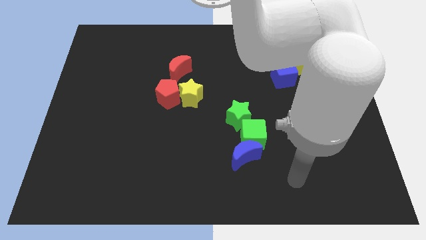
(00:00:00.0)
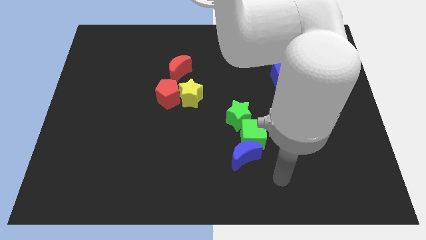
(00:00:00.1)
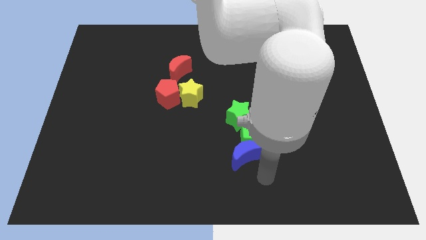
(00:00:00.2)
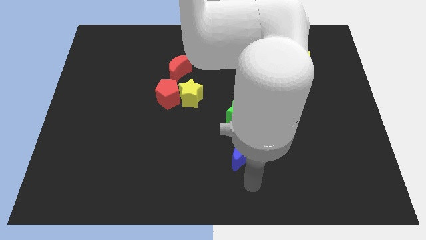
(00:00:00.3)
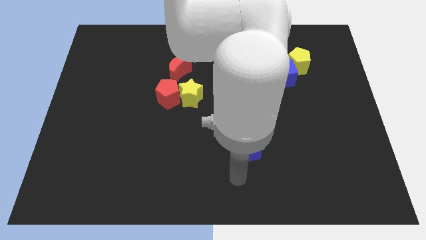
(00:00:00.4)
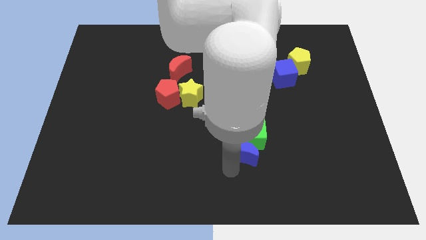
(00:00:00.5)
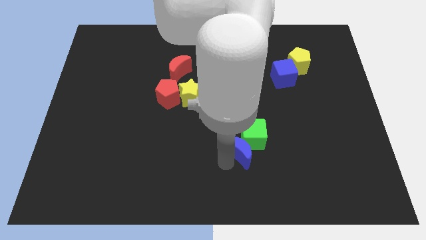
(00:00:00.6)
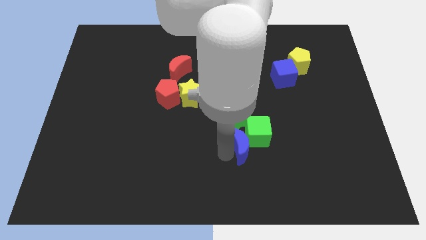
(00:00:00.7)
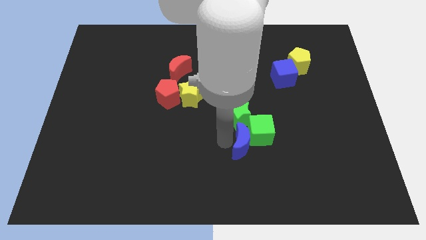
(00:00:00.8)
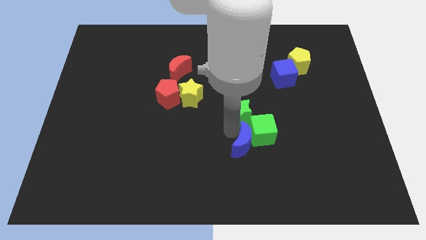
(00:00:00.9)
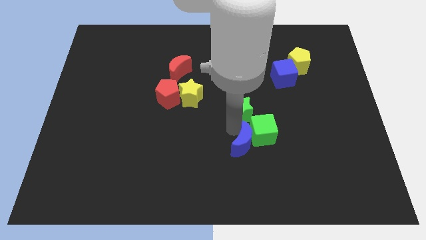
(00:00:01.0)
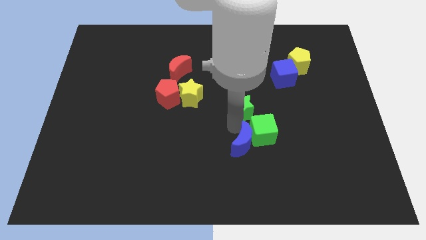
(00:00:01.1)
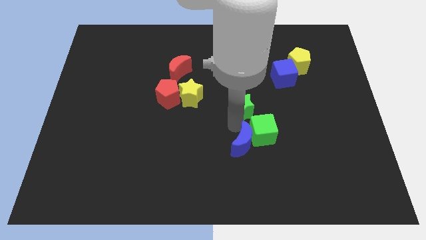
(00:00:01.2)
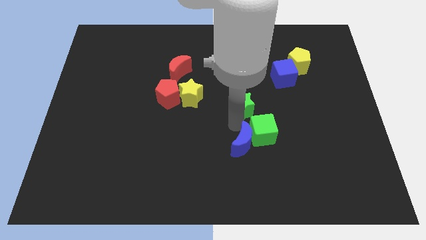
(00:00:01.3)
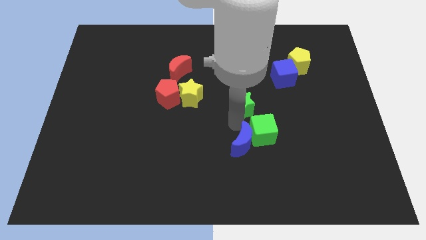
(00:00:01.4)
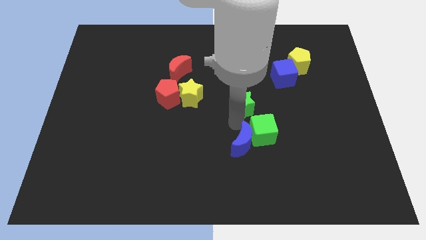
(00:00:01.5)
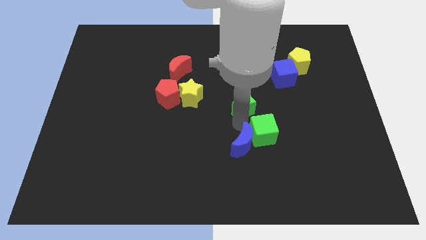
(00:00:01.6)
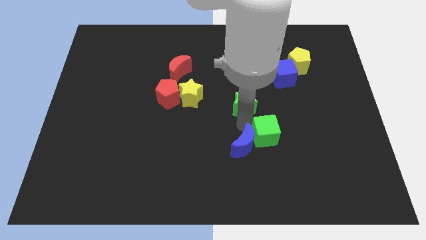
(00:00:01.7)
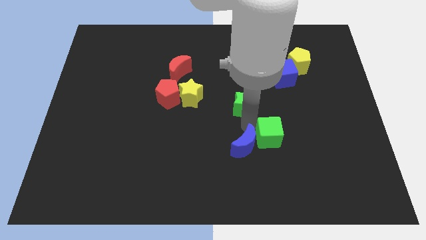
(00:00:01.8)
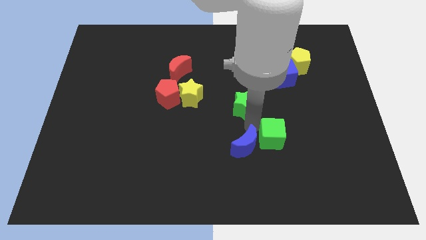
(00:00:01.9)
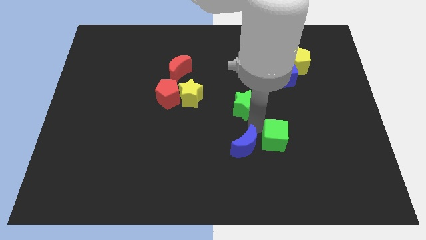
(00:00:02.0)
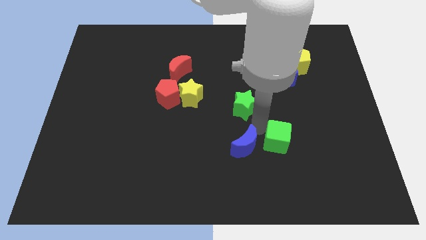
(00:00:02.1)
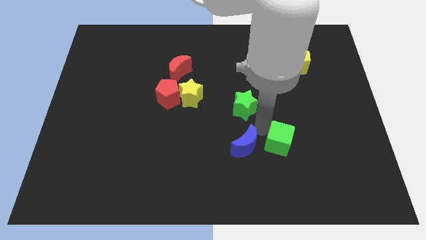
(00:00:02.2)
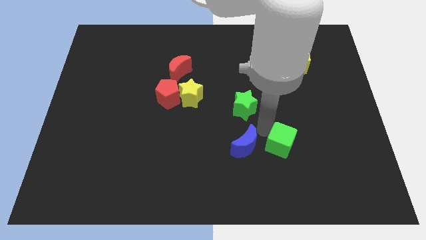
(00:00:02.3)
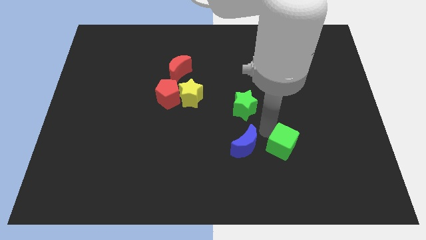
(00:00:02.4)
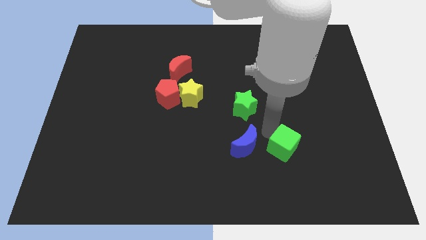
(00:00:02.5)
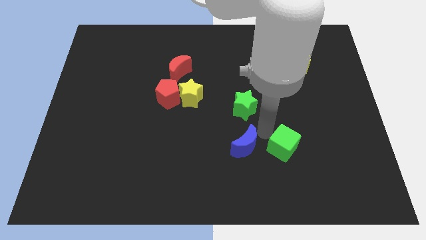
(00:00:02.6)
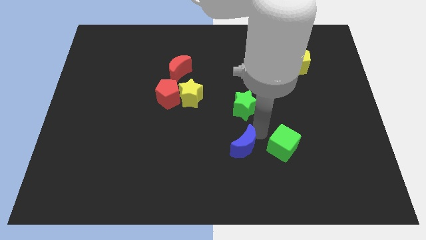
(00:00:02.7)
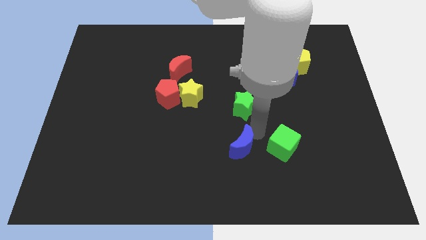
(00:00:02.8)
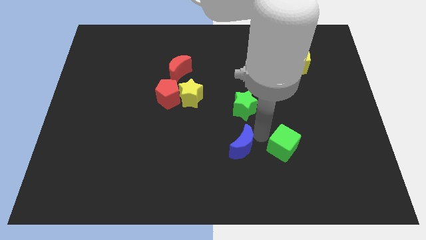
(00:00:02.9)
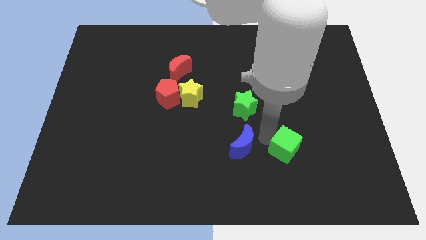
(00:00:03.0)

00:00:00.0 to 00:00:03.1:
pull the green cube apart from the blue moon and green star

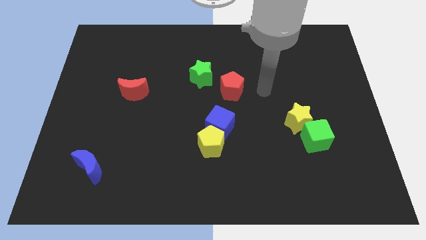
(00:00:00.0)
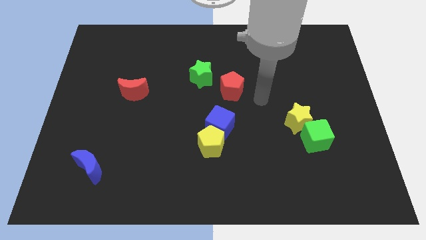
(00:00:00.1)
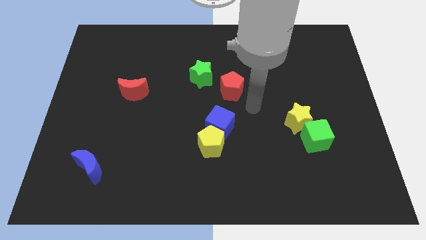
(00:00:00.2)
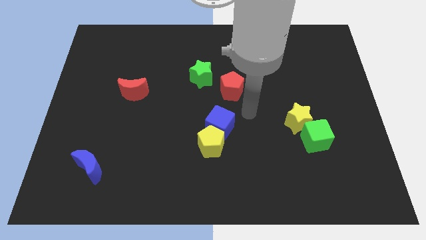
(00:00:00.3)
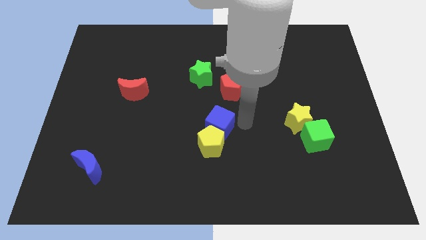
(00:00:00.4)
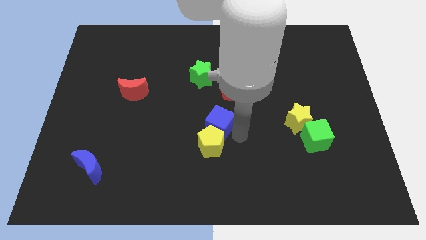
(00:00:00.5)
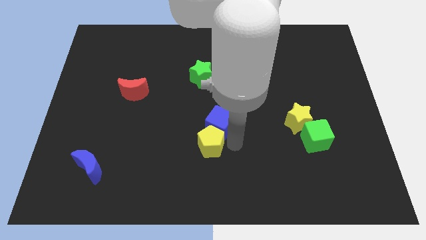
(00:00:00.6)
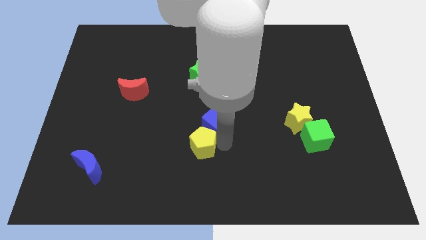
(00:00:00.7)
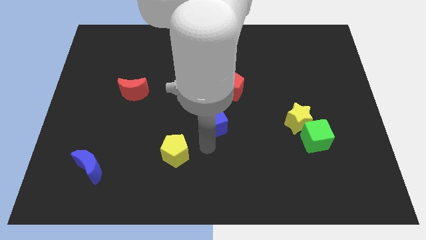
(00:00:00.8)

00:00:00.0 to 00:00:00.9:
pull the blue cube apart from the yellow pentagon

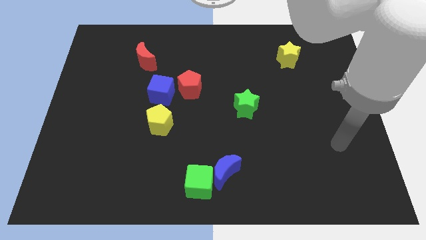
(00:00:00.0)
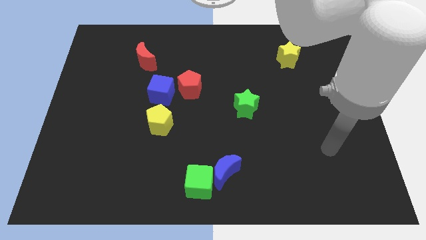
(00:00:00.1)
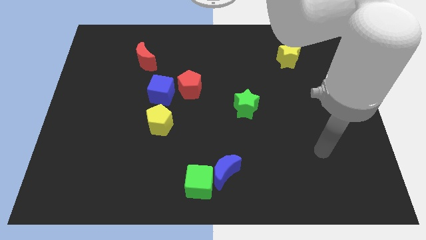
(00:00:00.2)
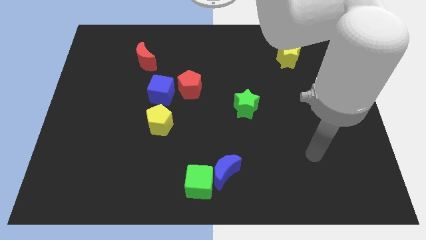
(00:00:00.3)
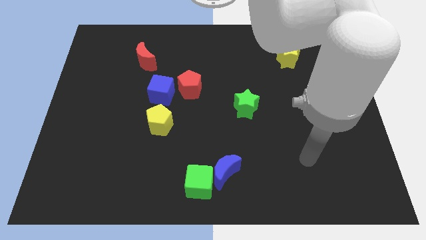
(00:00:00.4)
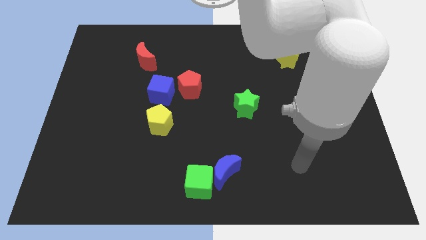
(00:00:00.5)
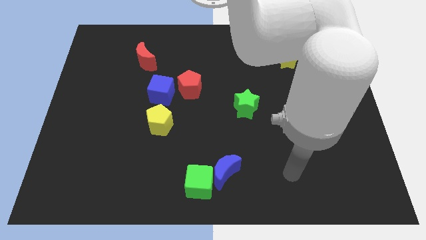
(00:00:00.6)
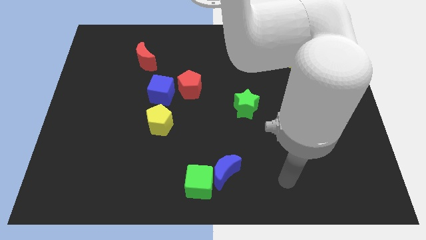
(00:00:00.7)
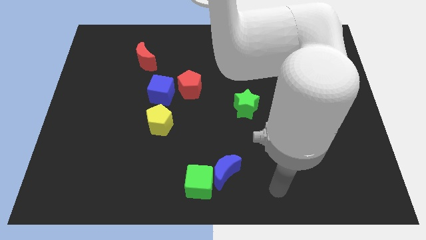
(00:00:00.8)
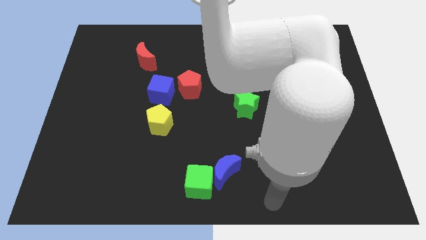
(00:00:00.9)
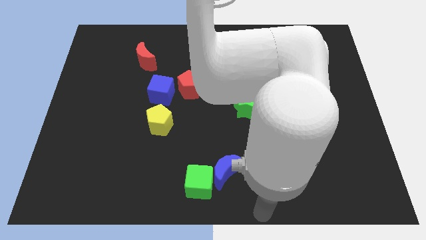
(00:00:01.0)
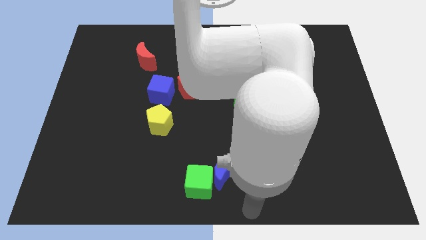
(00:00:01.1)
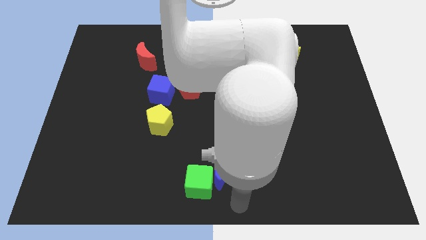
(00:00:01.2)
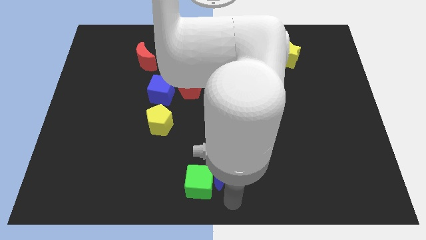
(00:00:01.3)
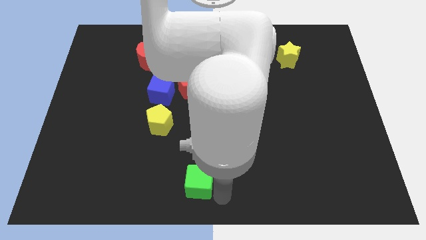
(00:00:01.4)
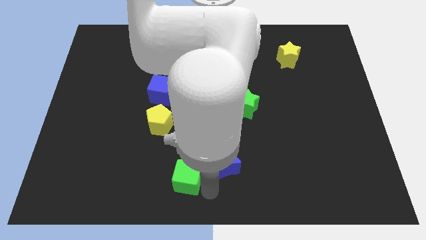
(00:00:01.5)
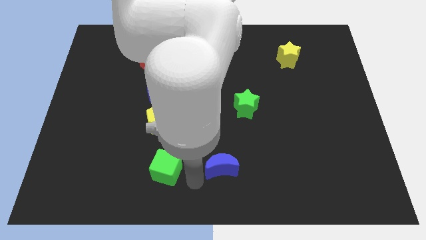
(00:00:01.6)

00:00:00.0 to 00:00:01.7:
move the blue moon away from the green cube

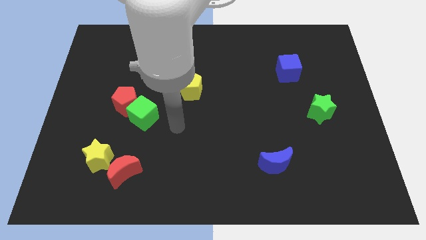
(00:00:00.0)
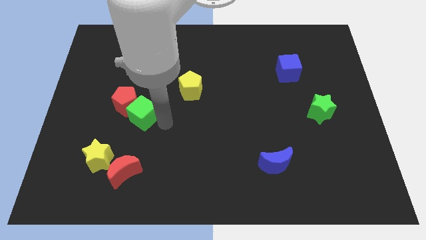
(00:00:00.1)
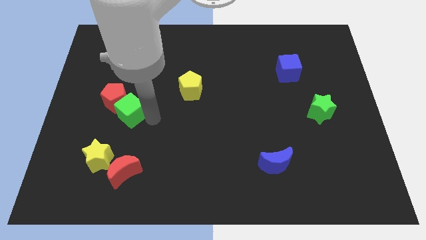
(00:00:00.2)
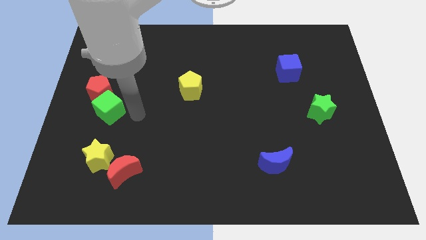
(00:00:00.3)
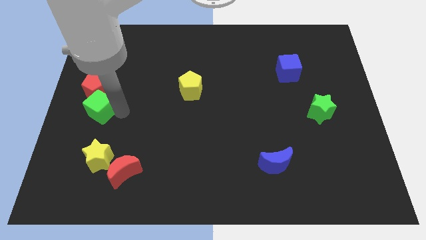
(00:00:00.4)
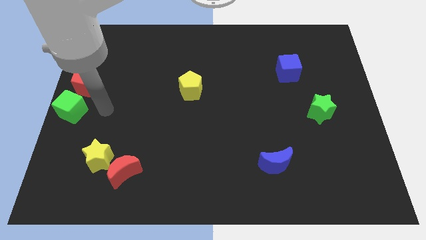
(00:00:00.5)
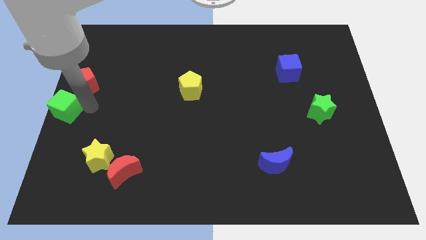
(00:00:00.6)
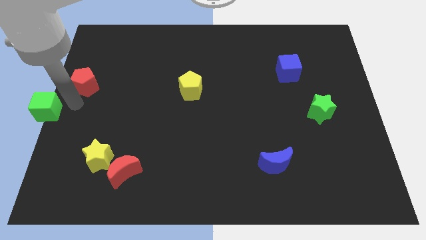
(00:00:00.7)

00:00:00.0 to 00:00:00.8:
move the red pentagon away from the green cube

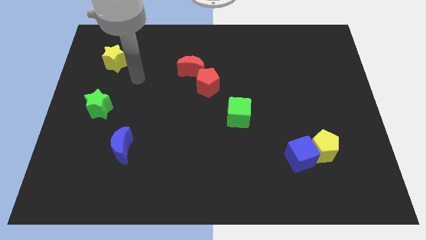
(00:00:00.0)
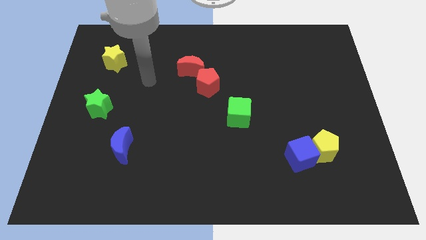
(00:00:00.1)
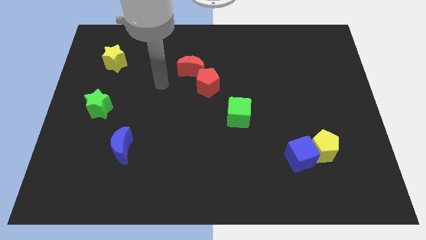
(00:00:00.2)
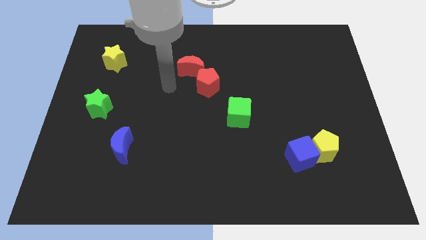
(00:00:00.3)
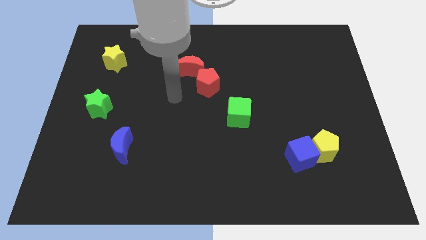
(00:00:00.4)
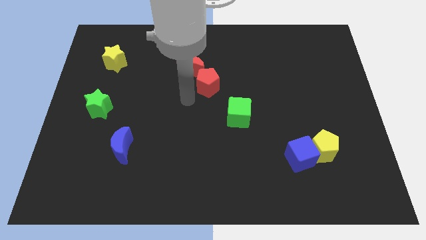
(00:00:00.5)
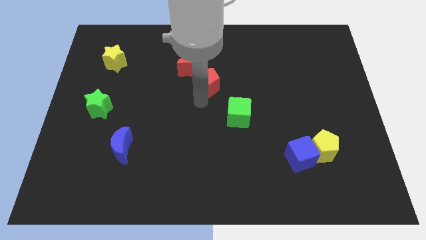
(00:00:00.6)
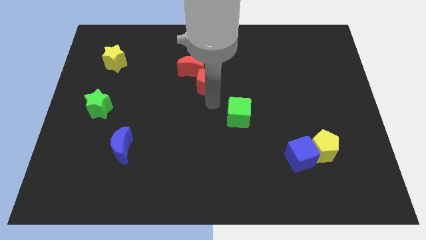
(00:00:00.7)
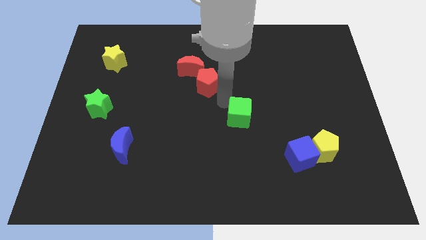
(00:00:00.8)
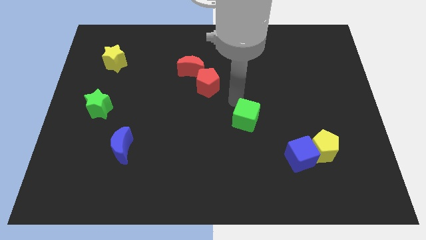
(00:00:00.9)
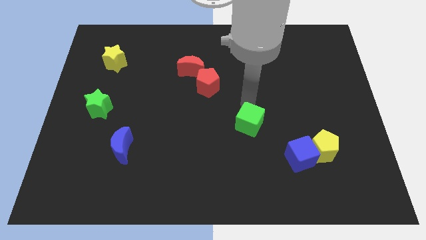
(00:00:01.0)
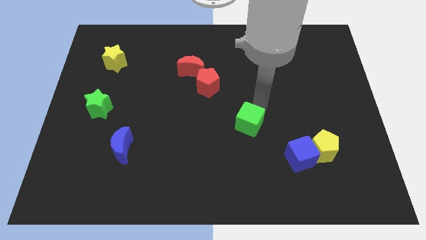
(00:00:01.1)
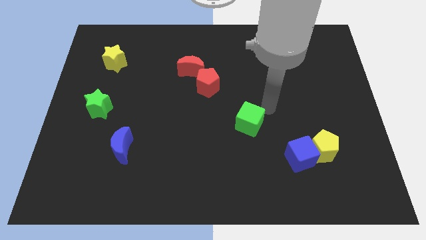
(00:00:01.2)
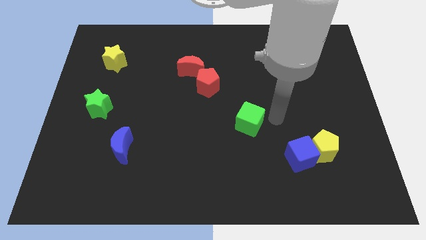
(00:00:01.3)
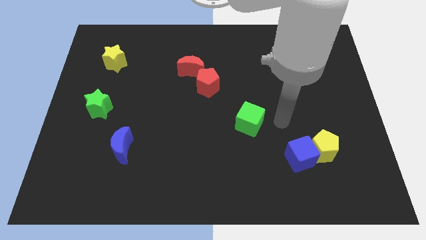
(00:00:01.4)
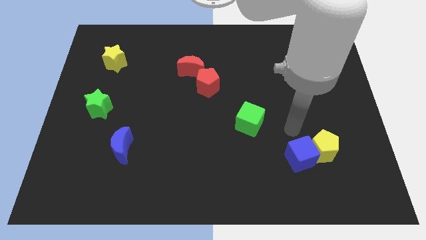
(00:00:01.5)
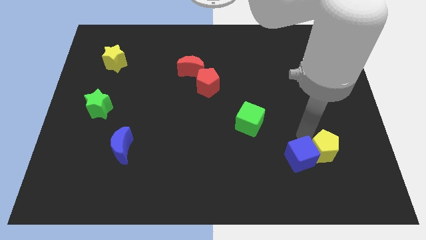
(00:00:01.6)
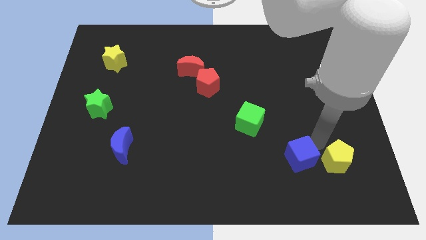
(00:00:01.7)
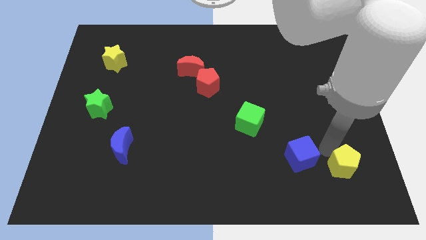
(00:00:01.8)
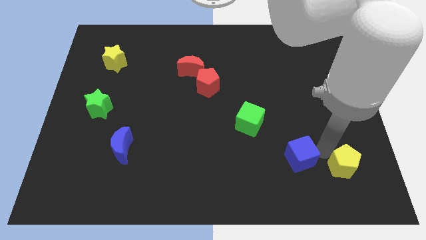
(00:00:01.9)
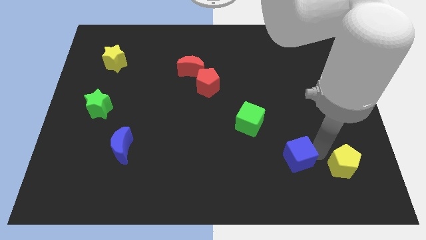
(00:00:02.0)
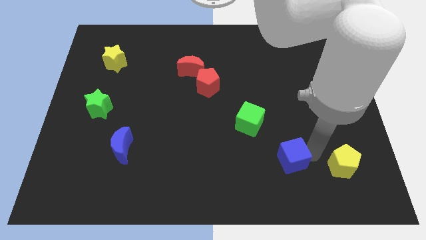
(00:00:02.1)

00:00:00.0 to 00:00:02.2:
move the blue cube away from the yellow pentagon

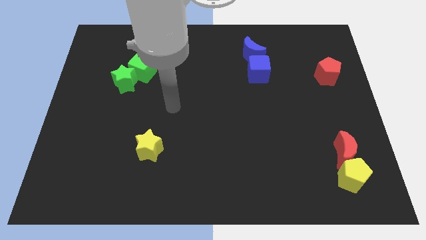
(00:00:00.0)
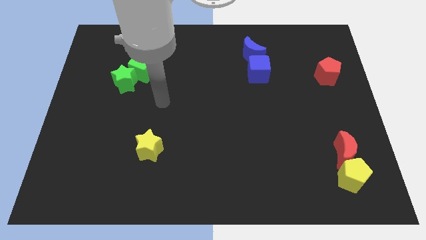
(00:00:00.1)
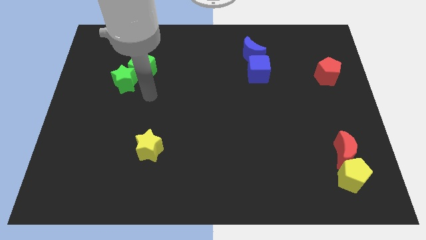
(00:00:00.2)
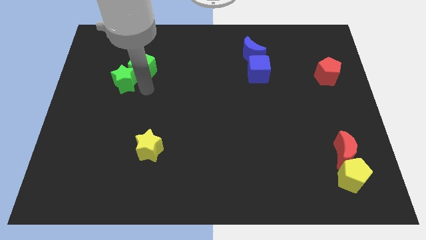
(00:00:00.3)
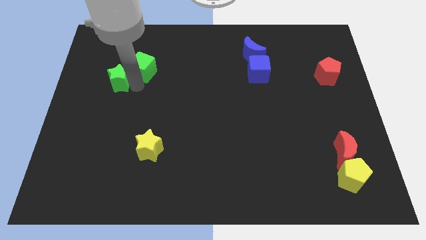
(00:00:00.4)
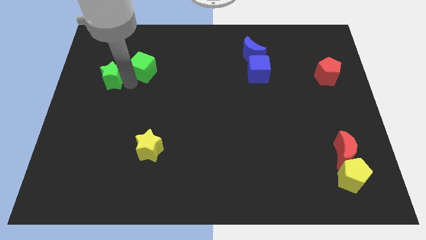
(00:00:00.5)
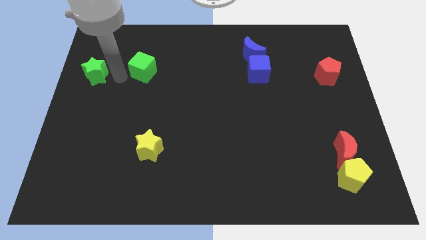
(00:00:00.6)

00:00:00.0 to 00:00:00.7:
separate the green cube from the green star

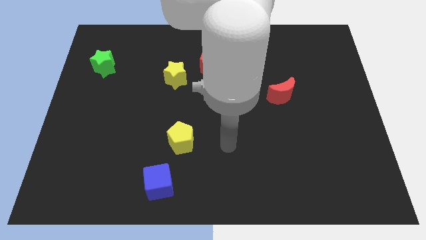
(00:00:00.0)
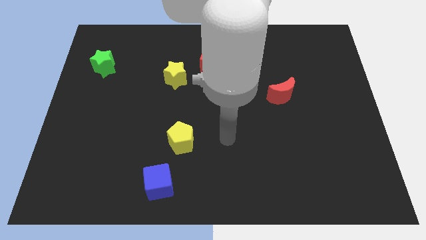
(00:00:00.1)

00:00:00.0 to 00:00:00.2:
separate the yellow star from the red pentagon
